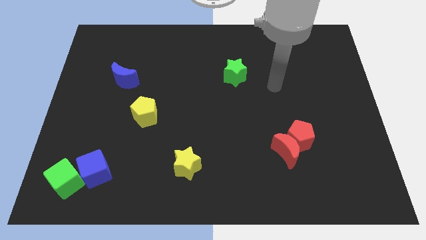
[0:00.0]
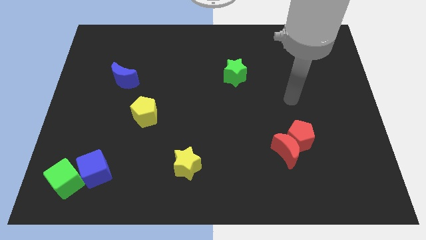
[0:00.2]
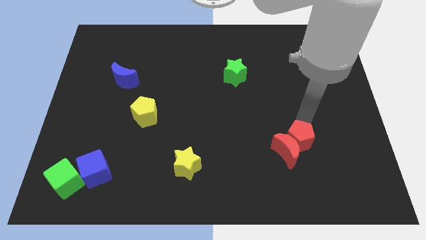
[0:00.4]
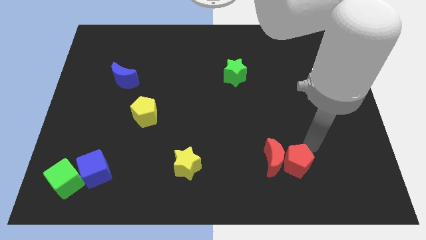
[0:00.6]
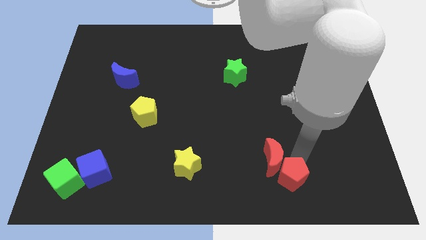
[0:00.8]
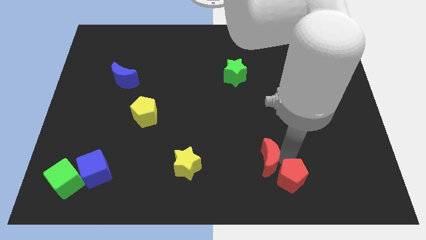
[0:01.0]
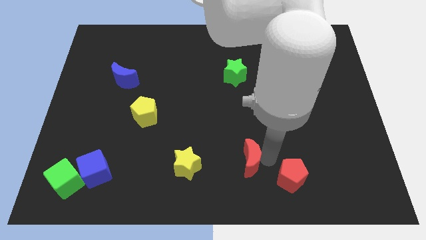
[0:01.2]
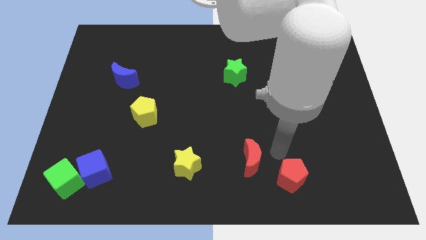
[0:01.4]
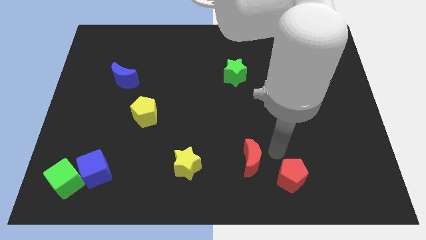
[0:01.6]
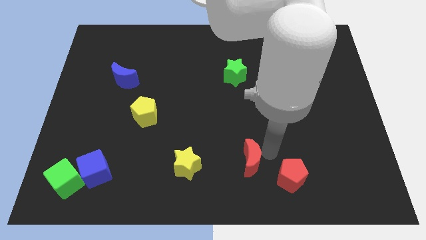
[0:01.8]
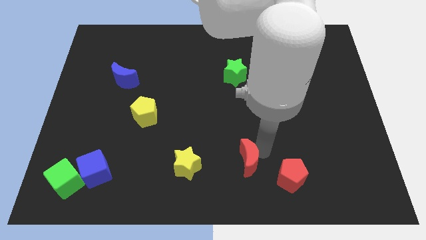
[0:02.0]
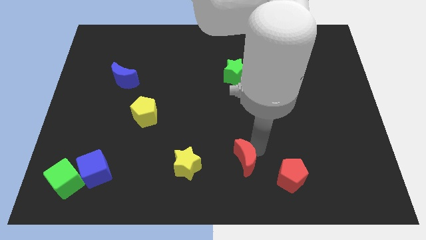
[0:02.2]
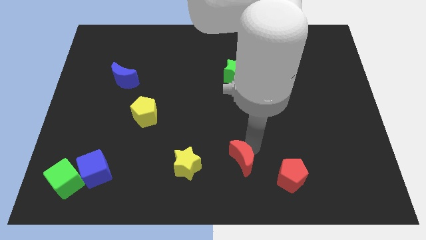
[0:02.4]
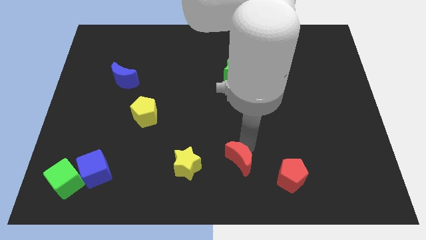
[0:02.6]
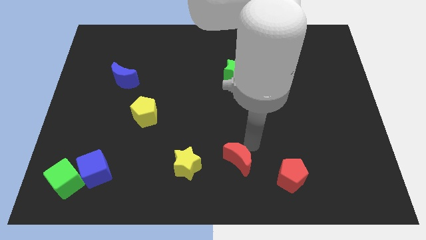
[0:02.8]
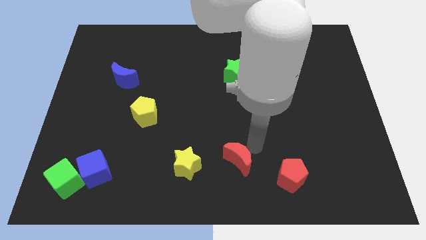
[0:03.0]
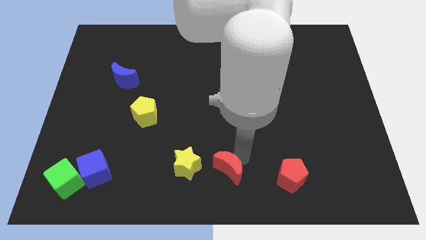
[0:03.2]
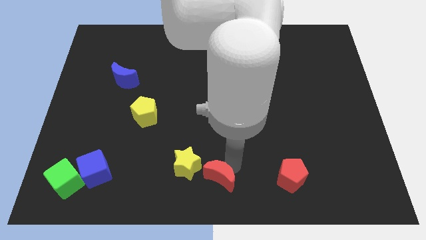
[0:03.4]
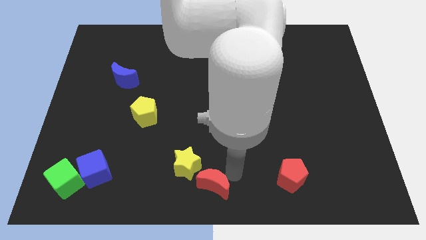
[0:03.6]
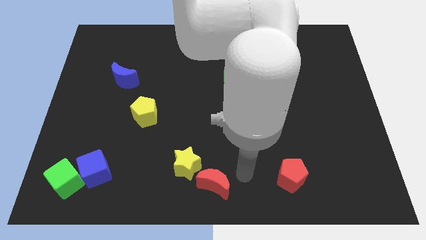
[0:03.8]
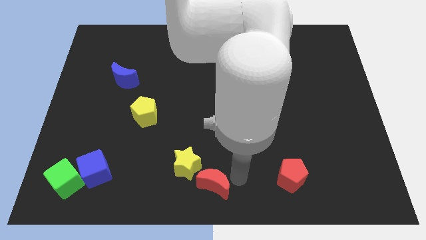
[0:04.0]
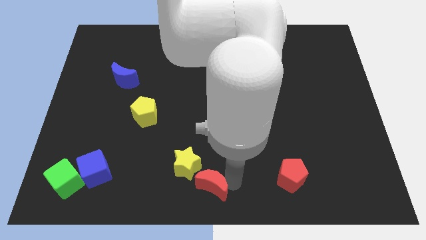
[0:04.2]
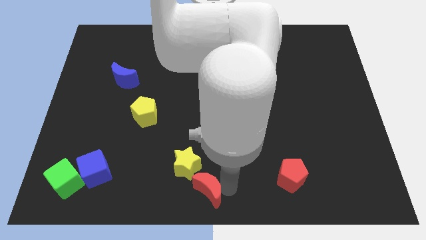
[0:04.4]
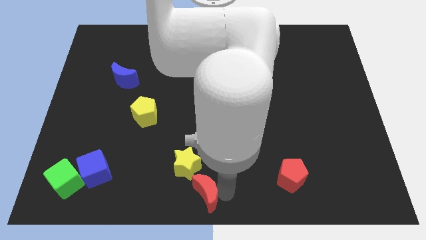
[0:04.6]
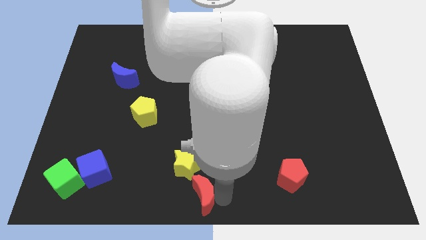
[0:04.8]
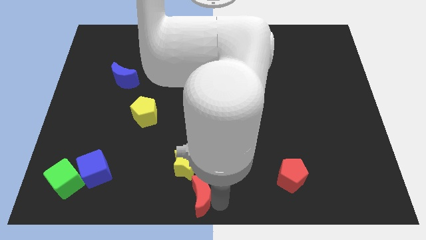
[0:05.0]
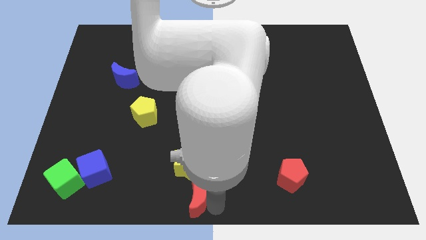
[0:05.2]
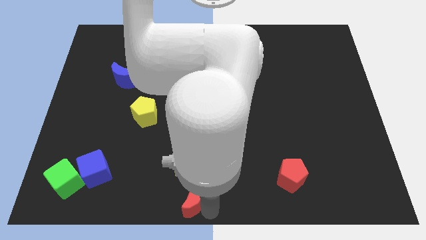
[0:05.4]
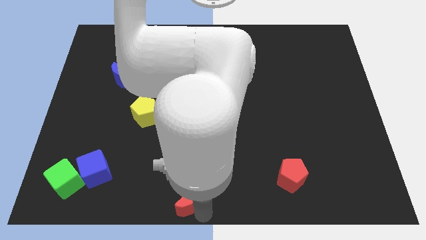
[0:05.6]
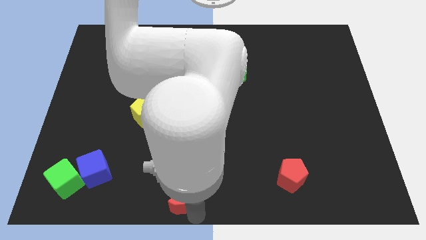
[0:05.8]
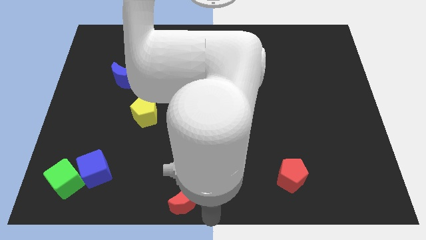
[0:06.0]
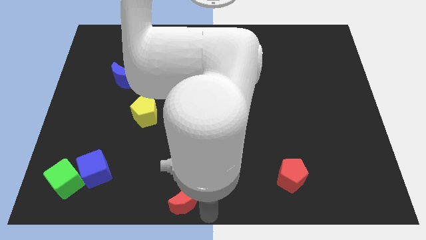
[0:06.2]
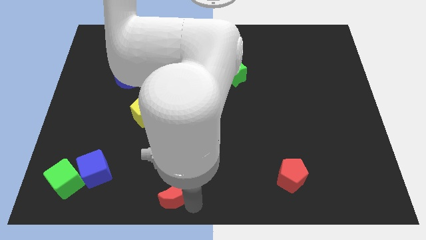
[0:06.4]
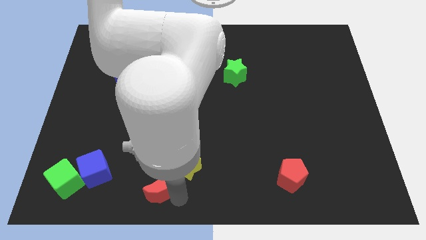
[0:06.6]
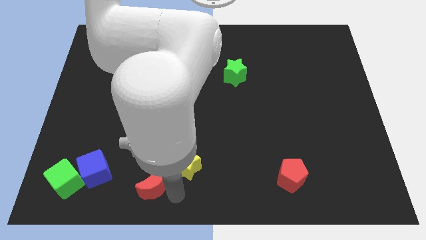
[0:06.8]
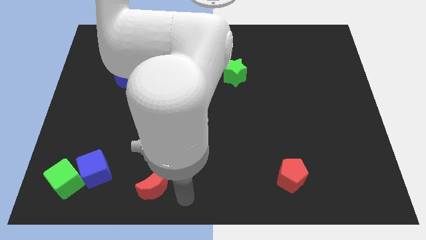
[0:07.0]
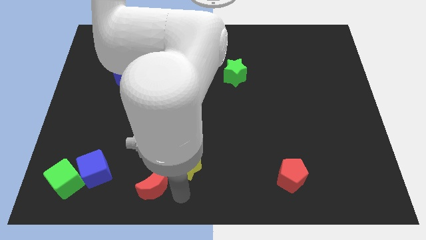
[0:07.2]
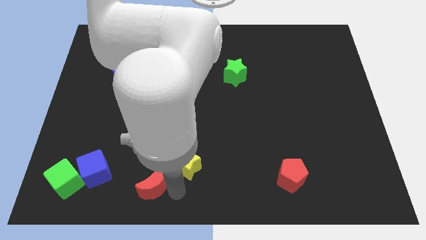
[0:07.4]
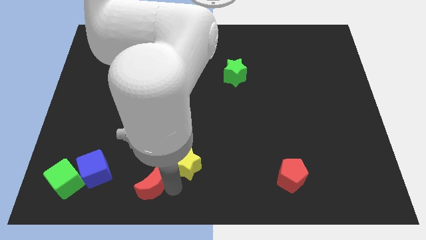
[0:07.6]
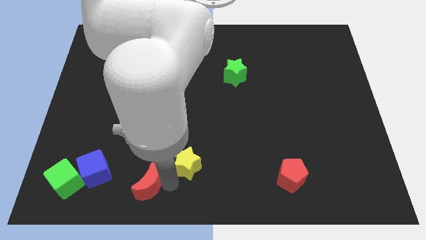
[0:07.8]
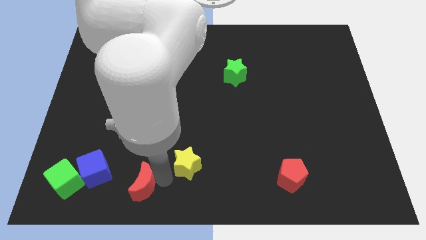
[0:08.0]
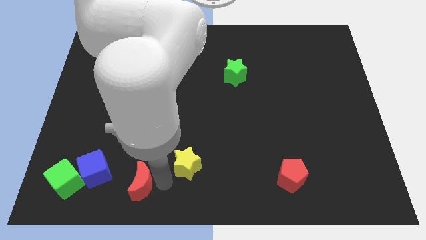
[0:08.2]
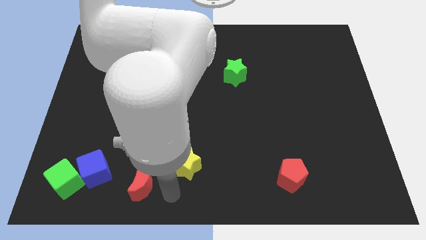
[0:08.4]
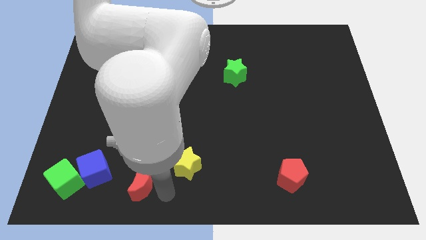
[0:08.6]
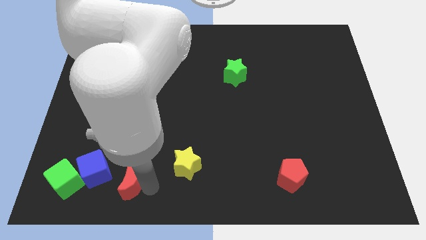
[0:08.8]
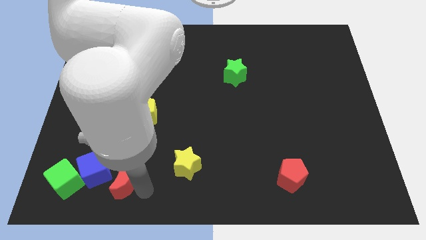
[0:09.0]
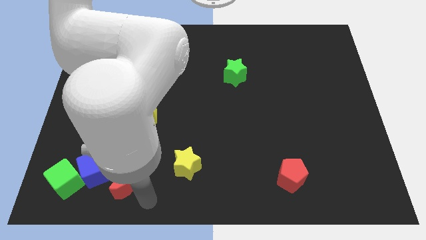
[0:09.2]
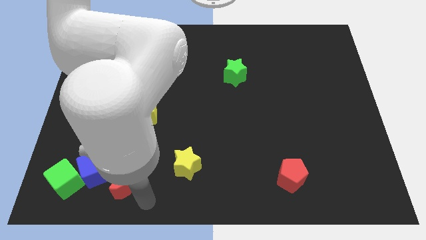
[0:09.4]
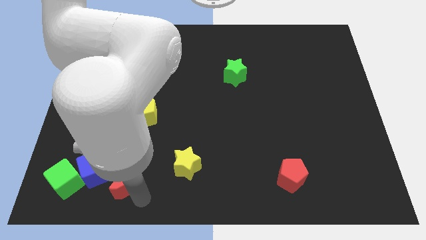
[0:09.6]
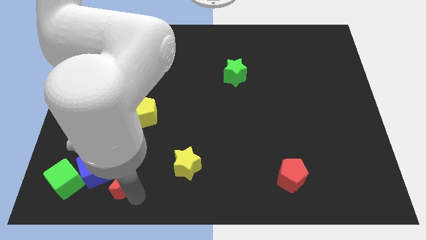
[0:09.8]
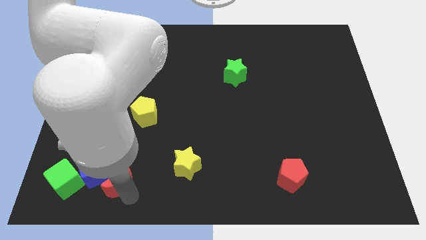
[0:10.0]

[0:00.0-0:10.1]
move the red moon to the blue cube
